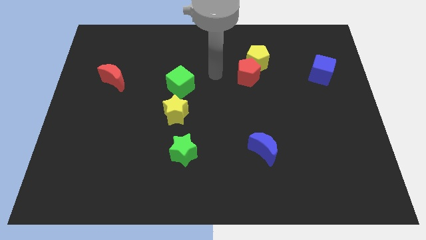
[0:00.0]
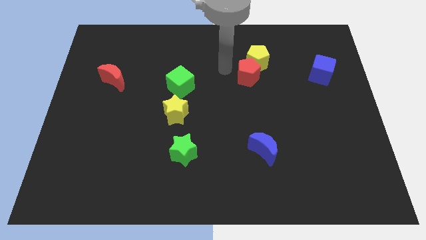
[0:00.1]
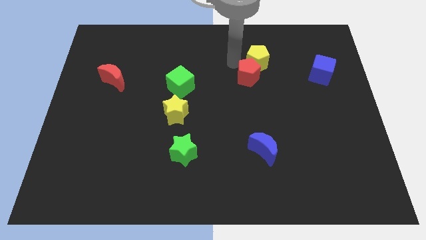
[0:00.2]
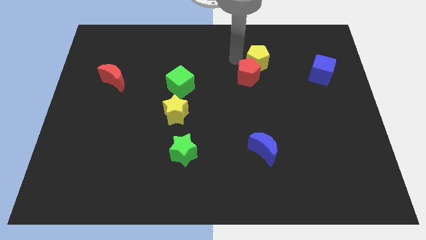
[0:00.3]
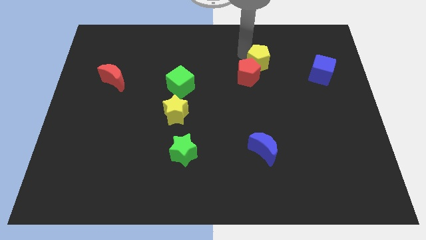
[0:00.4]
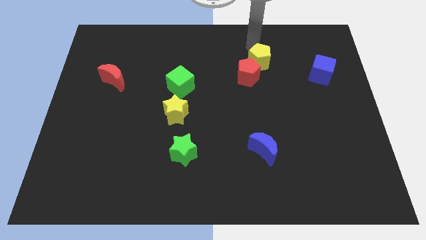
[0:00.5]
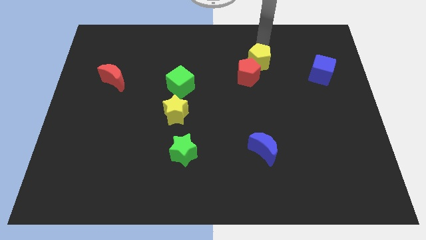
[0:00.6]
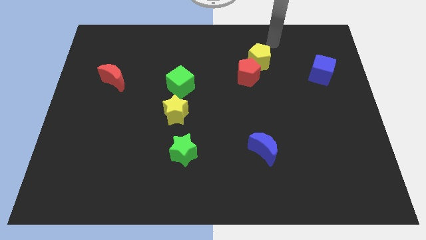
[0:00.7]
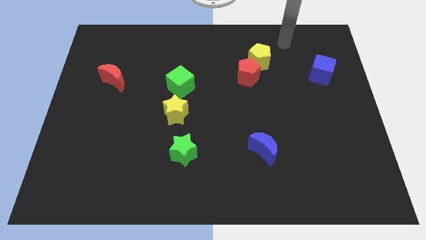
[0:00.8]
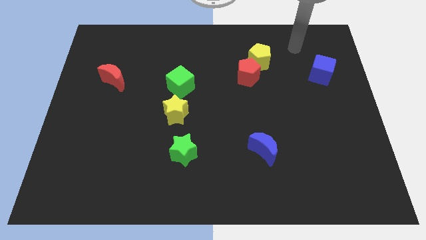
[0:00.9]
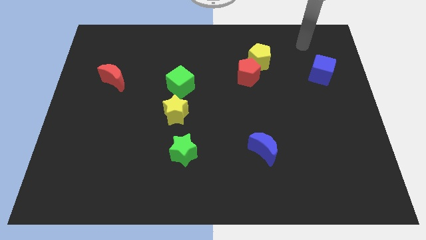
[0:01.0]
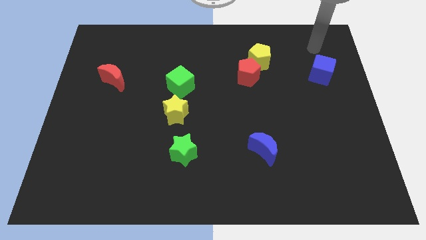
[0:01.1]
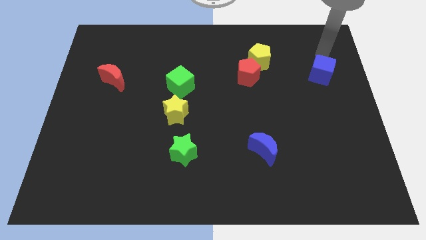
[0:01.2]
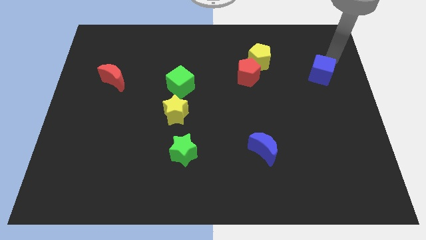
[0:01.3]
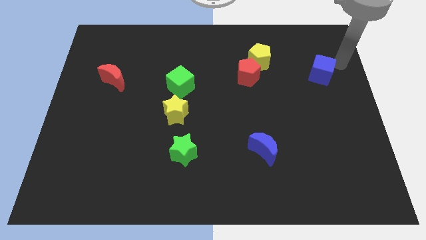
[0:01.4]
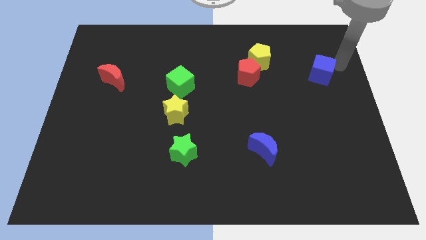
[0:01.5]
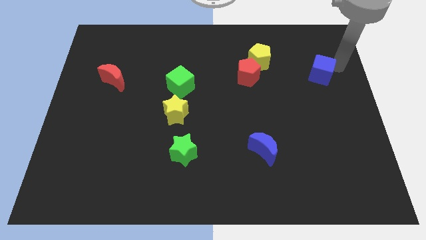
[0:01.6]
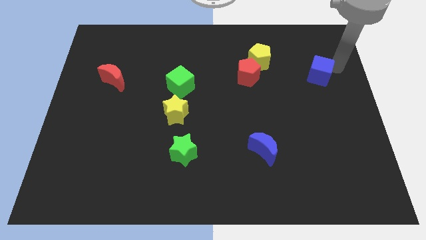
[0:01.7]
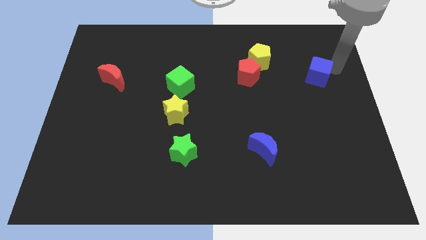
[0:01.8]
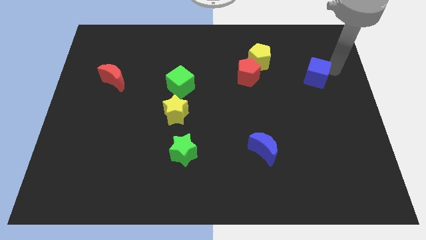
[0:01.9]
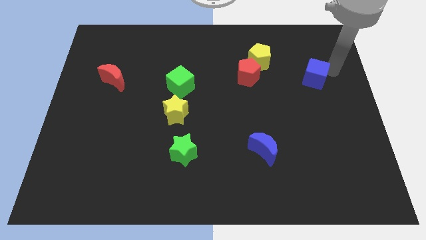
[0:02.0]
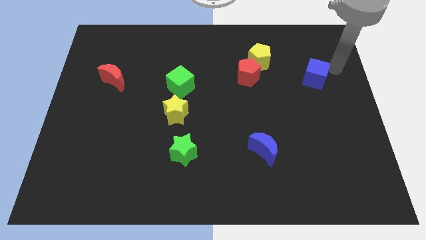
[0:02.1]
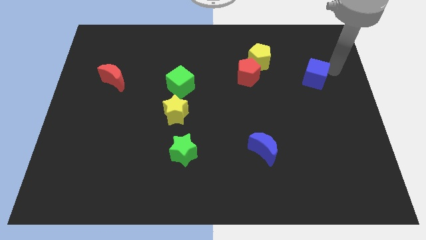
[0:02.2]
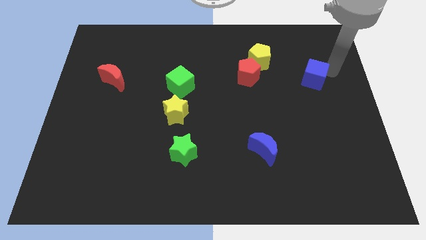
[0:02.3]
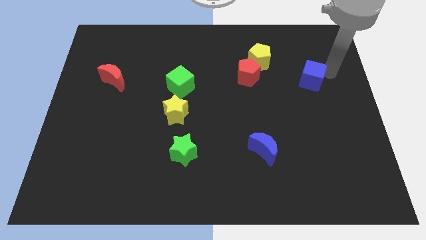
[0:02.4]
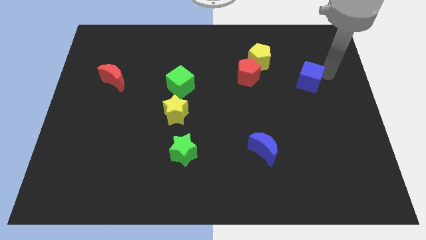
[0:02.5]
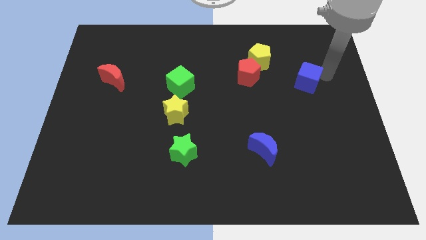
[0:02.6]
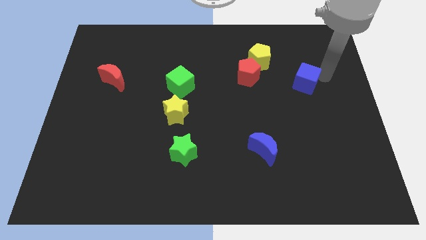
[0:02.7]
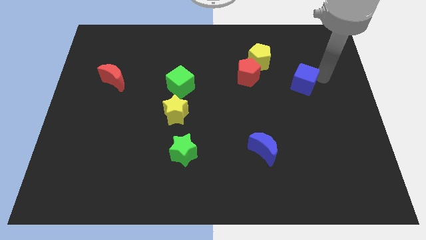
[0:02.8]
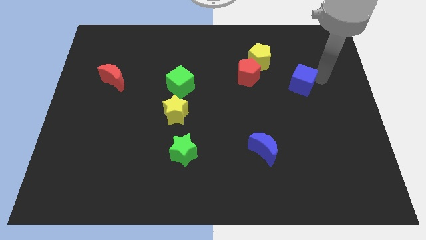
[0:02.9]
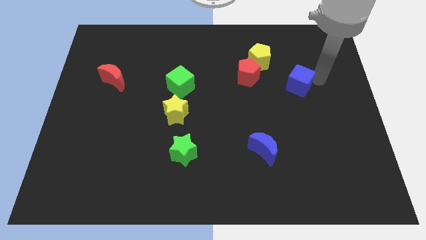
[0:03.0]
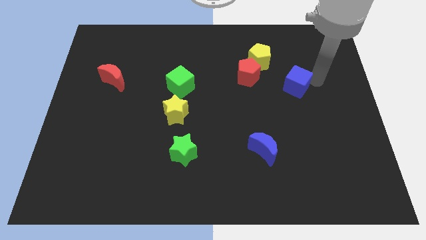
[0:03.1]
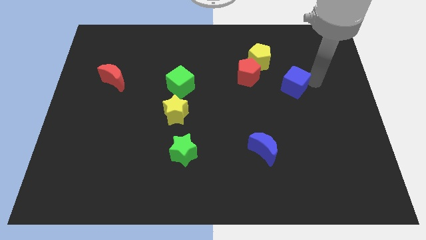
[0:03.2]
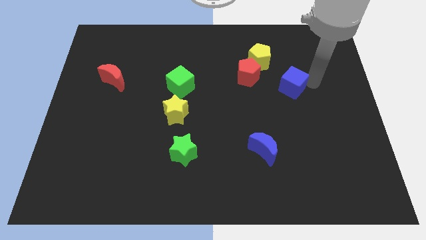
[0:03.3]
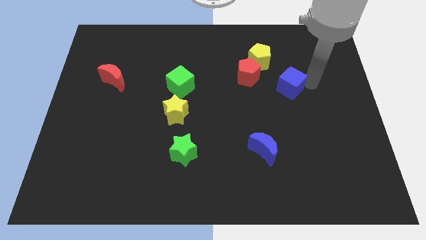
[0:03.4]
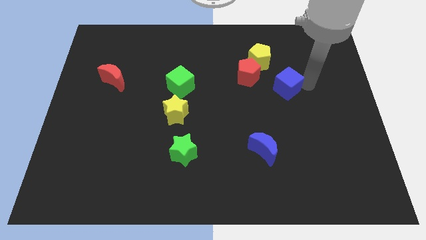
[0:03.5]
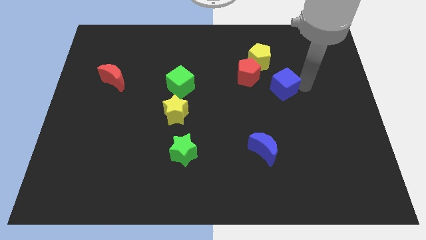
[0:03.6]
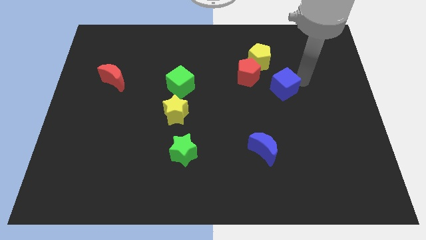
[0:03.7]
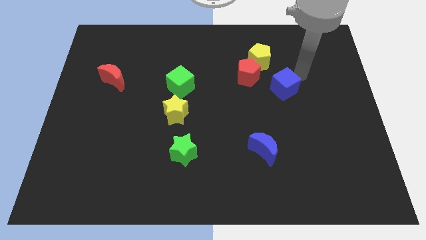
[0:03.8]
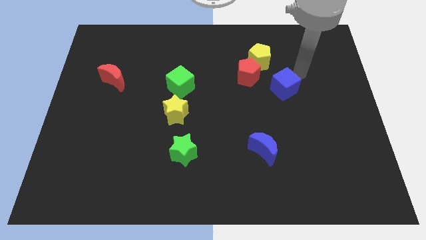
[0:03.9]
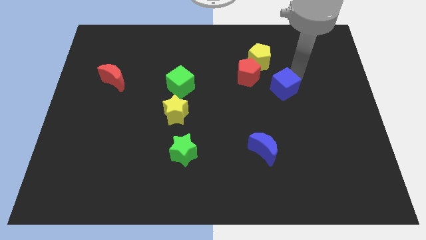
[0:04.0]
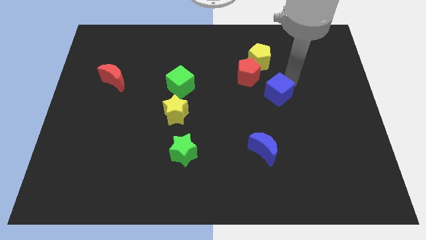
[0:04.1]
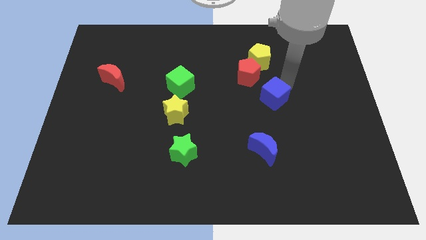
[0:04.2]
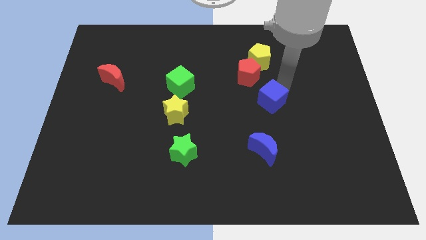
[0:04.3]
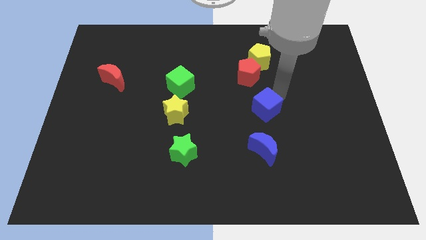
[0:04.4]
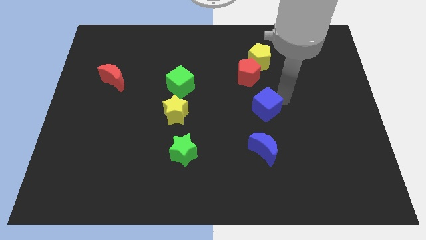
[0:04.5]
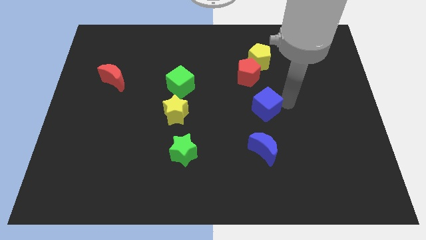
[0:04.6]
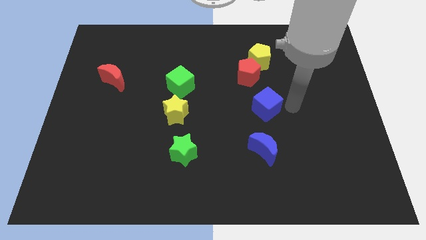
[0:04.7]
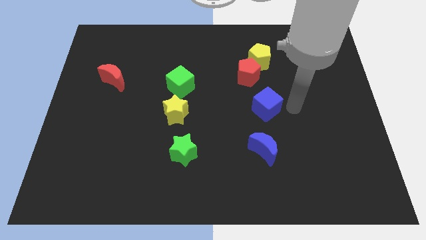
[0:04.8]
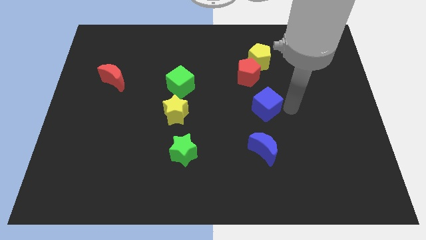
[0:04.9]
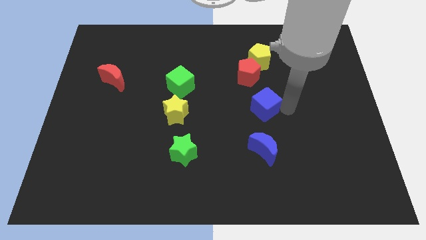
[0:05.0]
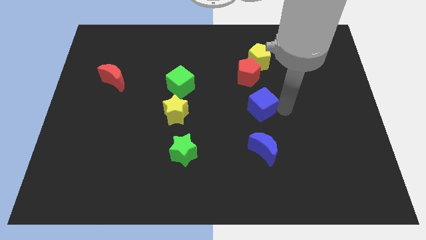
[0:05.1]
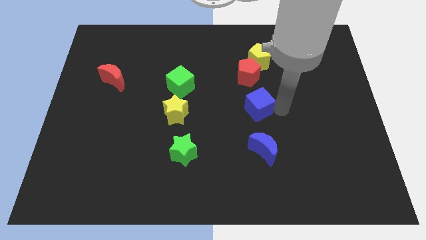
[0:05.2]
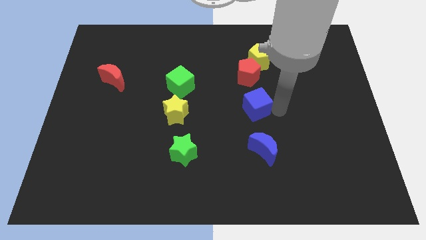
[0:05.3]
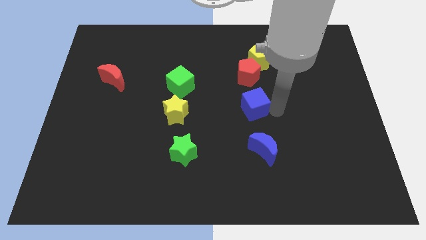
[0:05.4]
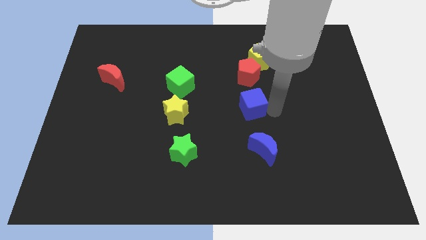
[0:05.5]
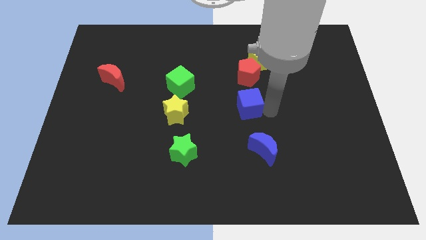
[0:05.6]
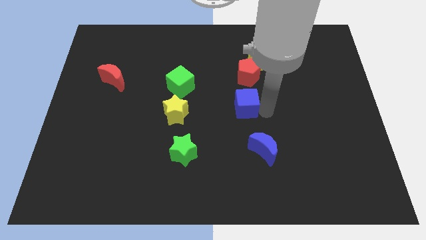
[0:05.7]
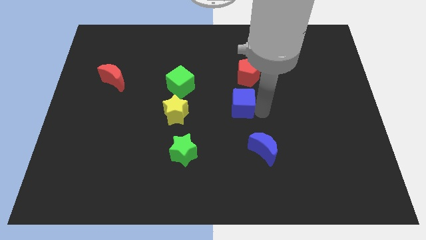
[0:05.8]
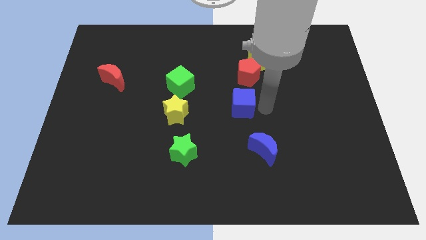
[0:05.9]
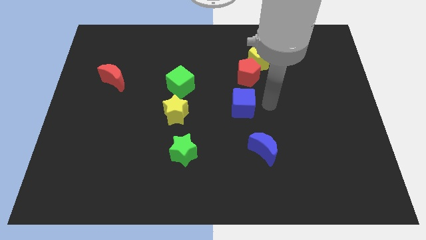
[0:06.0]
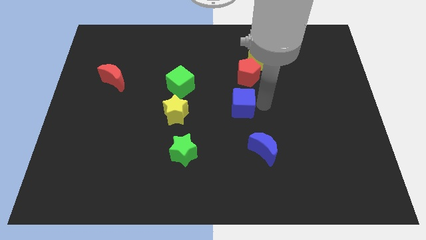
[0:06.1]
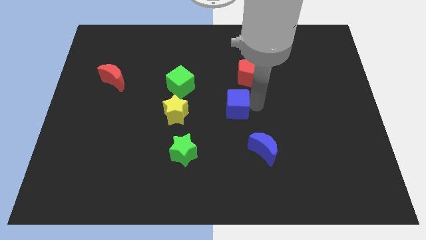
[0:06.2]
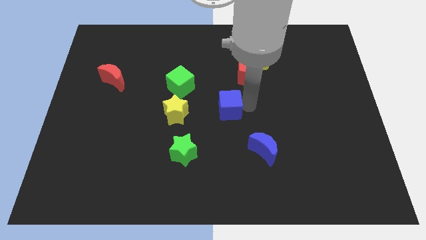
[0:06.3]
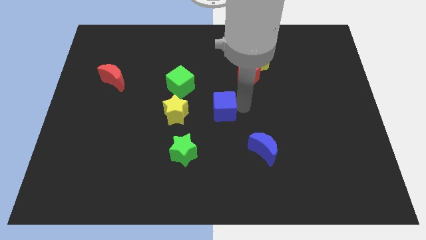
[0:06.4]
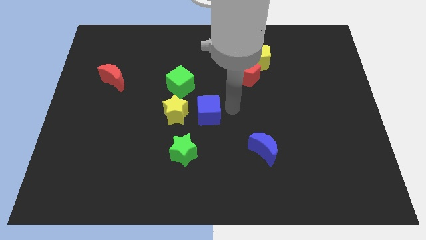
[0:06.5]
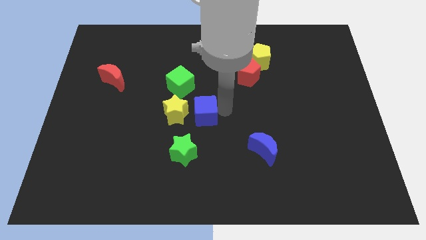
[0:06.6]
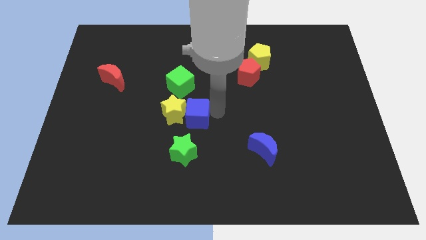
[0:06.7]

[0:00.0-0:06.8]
put the blue cube close to the yellow star

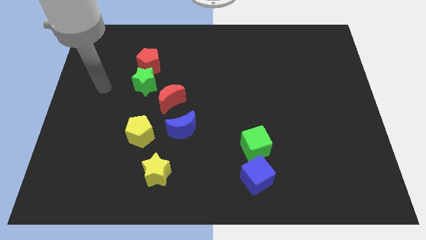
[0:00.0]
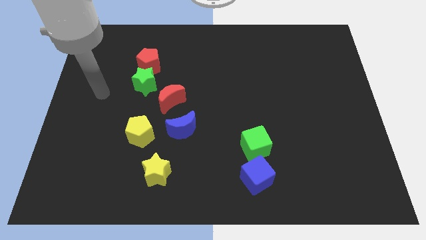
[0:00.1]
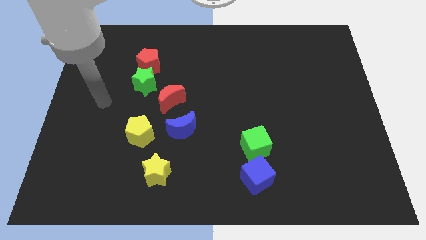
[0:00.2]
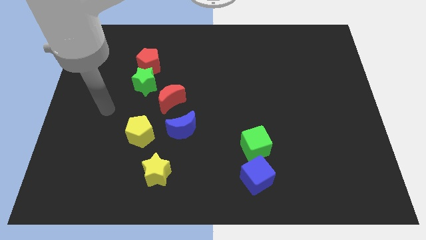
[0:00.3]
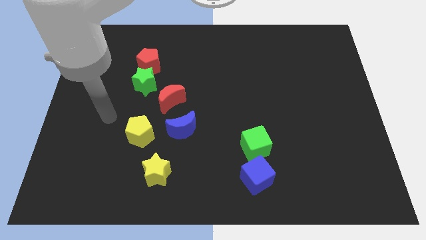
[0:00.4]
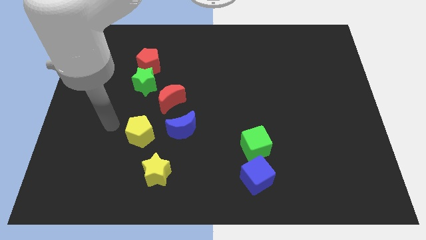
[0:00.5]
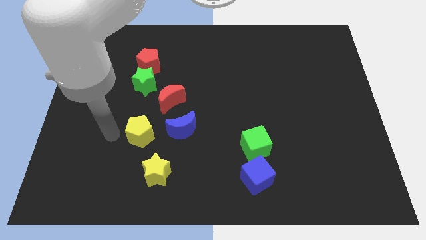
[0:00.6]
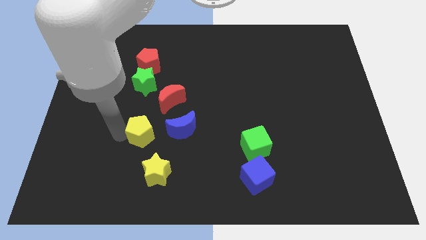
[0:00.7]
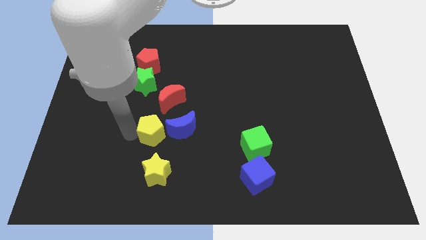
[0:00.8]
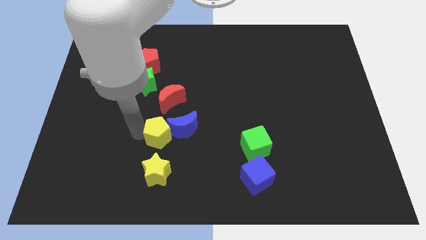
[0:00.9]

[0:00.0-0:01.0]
push the yellow pentagon to the blue moon

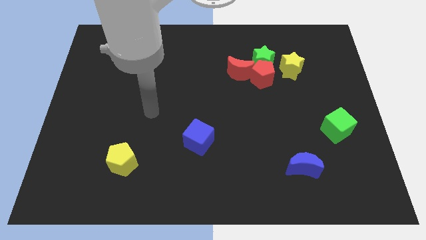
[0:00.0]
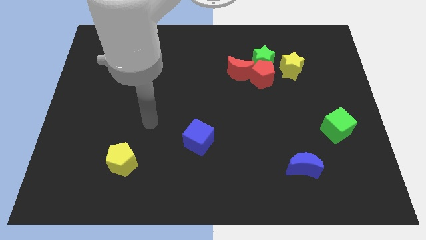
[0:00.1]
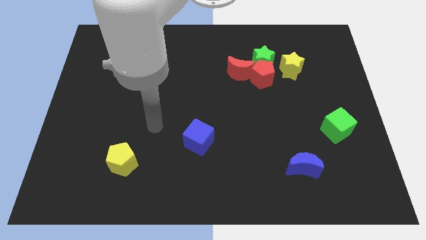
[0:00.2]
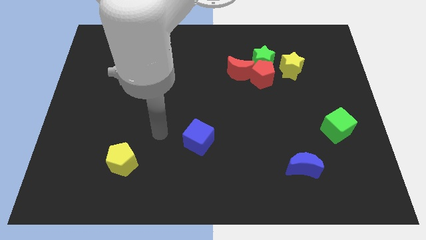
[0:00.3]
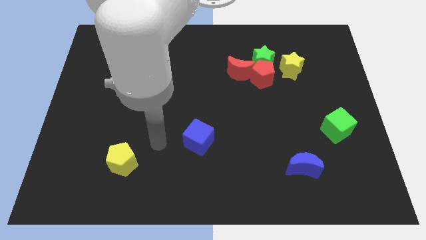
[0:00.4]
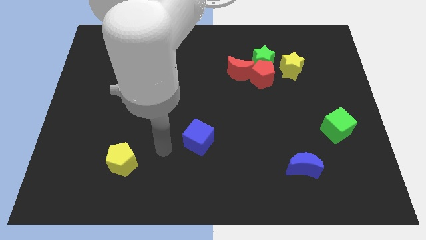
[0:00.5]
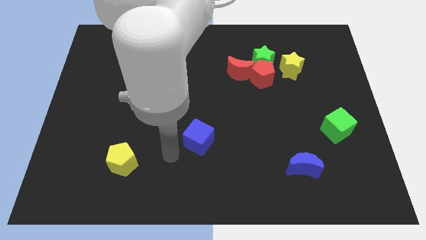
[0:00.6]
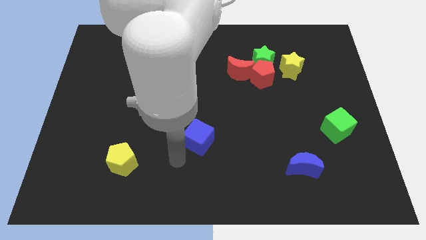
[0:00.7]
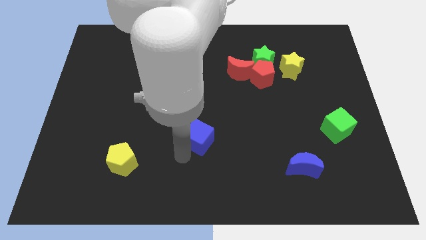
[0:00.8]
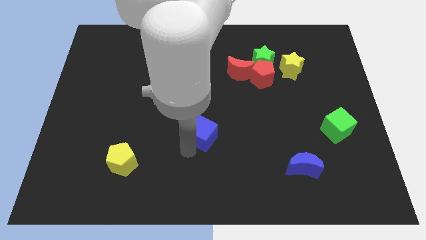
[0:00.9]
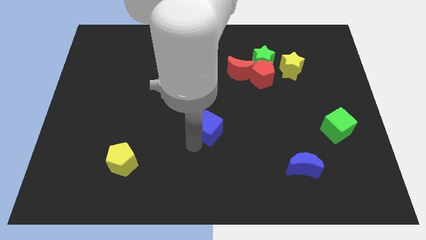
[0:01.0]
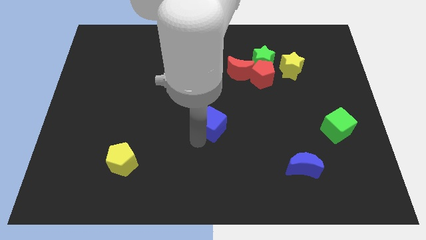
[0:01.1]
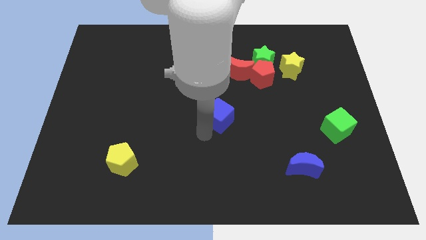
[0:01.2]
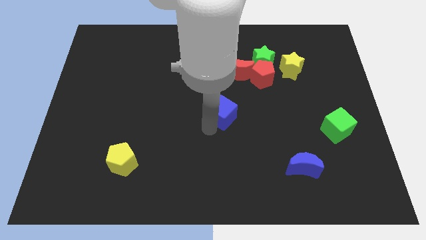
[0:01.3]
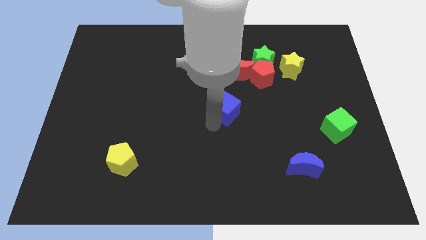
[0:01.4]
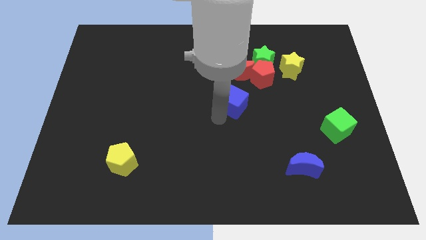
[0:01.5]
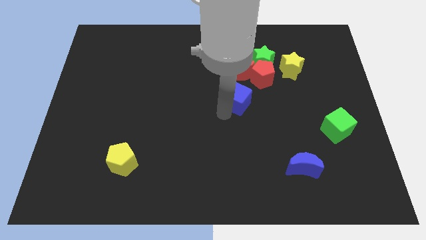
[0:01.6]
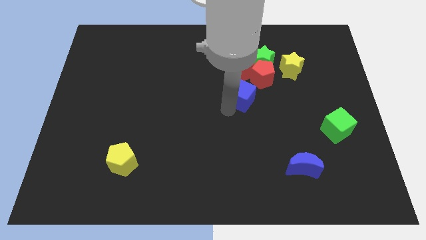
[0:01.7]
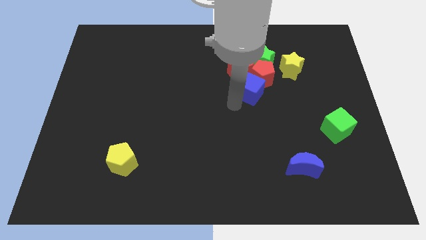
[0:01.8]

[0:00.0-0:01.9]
put the blue cube close to the red pentagon
